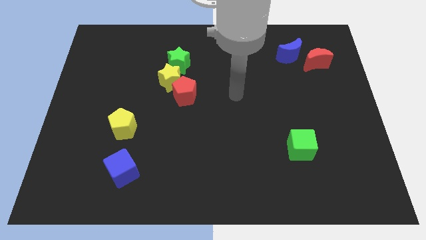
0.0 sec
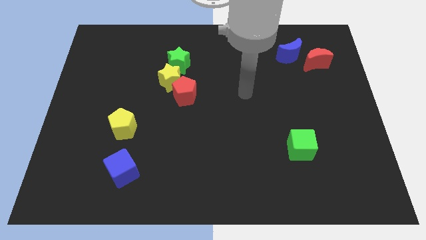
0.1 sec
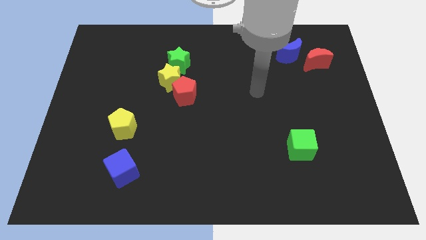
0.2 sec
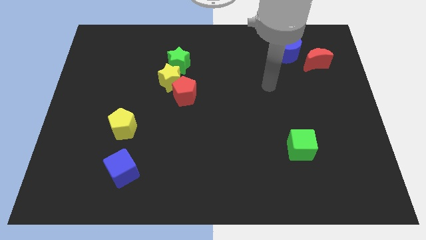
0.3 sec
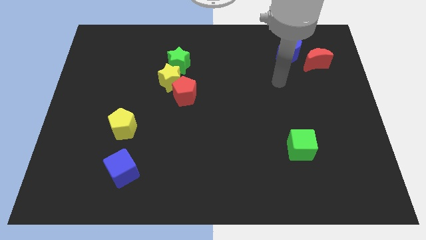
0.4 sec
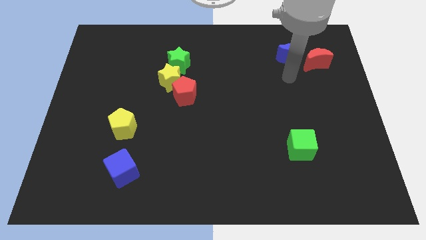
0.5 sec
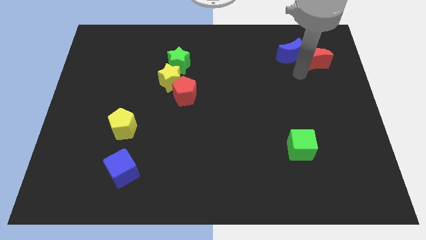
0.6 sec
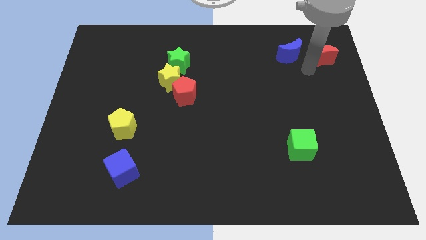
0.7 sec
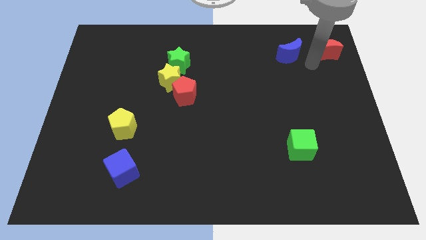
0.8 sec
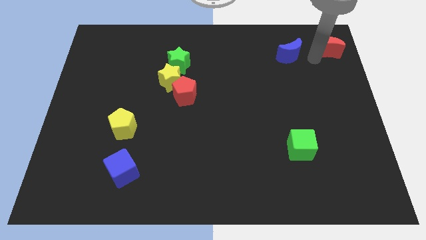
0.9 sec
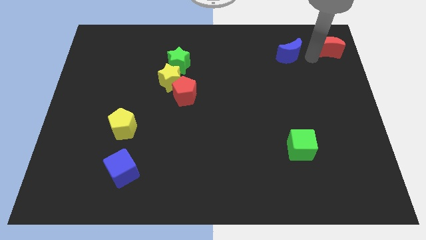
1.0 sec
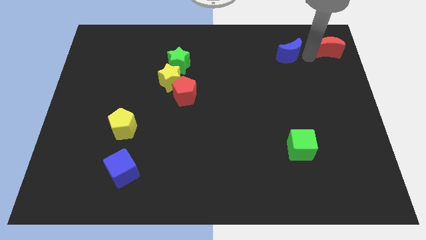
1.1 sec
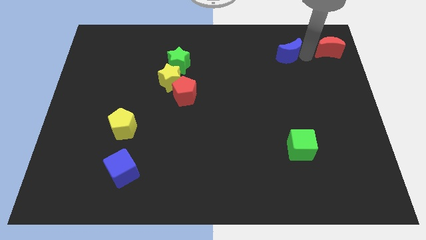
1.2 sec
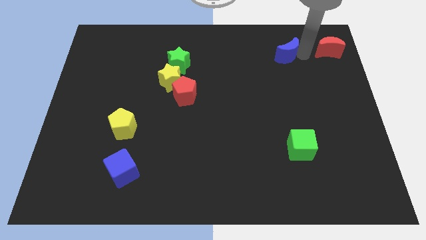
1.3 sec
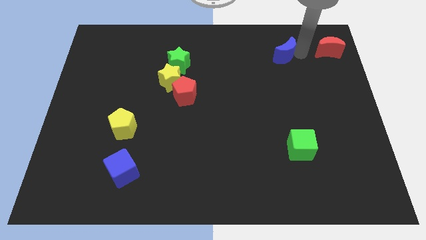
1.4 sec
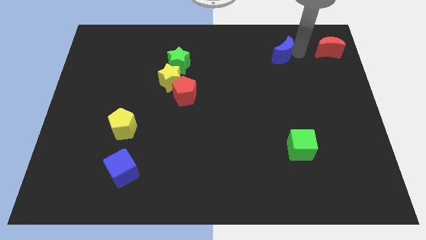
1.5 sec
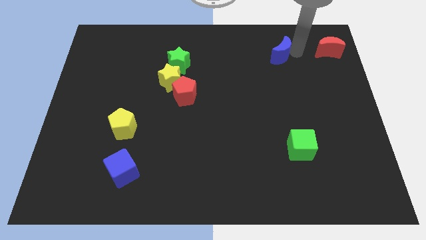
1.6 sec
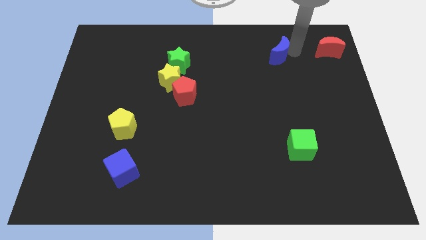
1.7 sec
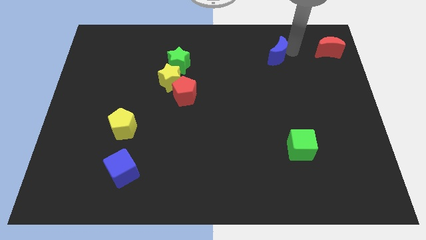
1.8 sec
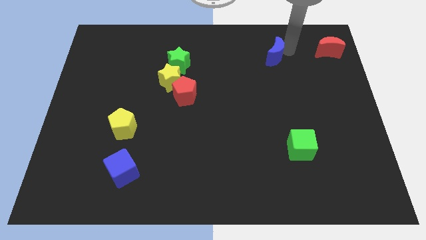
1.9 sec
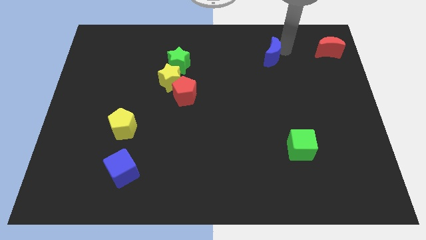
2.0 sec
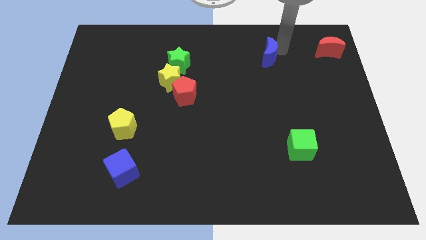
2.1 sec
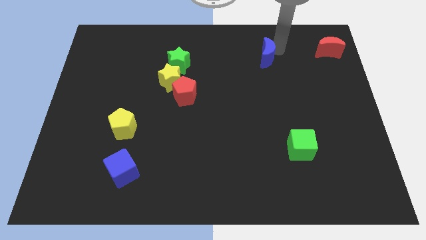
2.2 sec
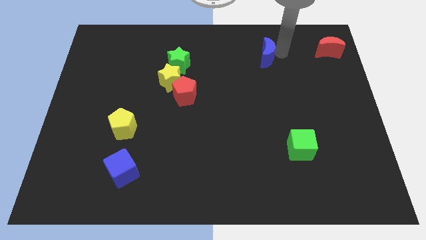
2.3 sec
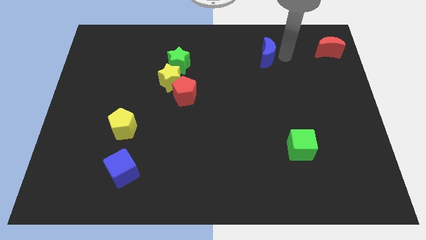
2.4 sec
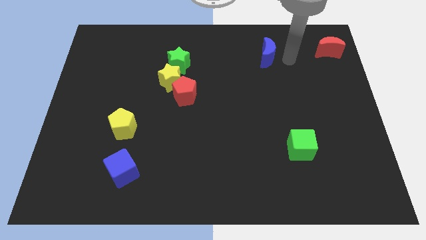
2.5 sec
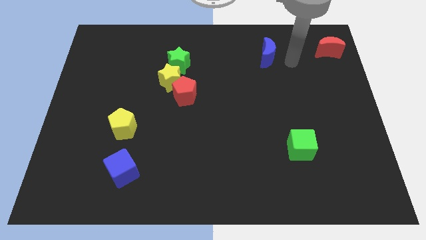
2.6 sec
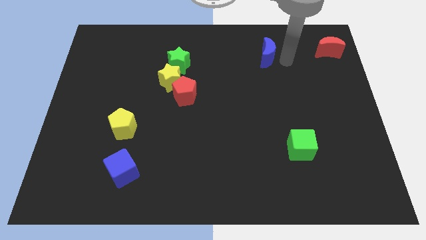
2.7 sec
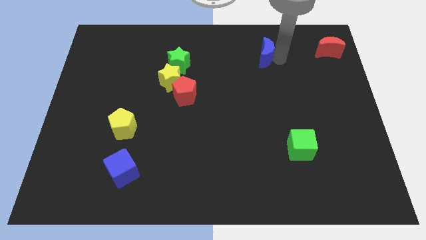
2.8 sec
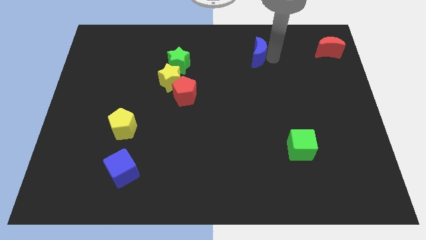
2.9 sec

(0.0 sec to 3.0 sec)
slightly push the blue moon left

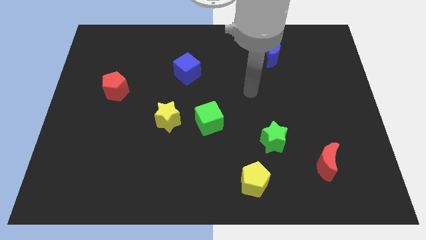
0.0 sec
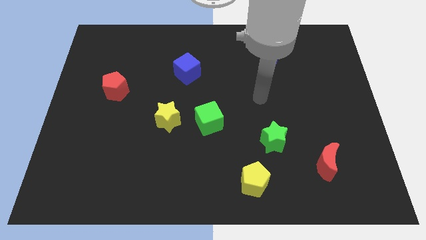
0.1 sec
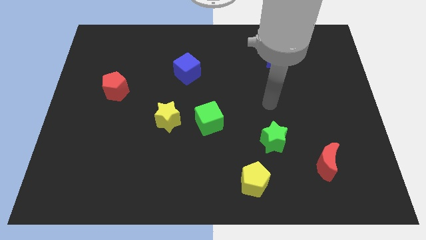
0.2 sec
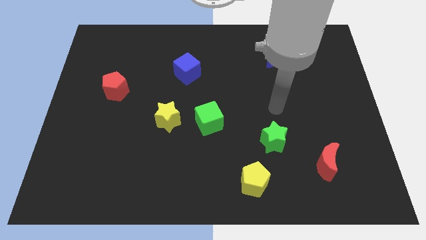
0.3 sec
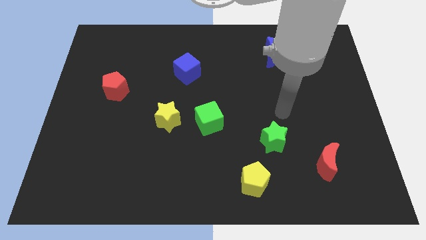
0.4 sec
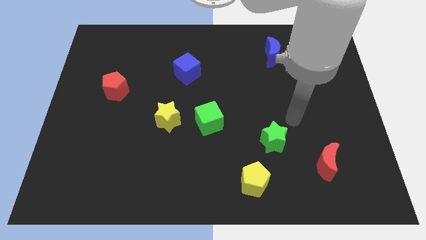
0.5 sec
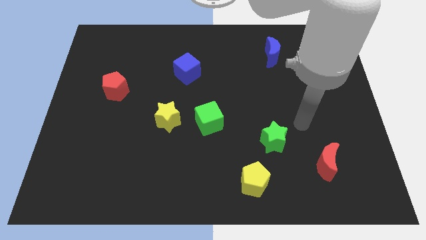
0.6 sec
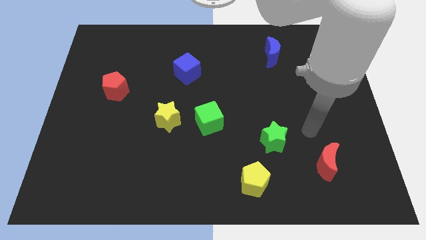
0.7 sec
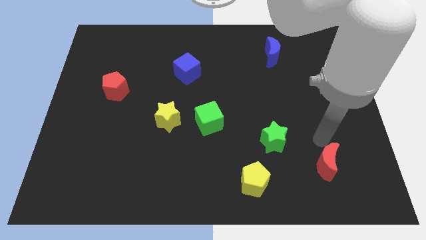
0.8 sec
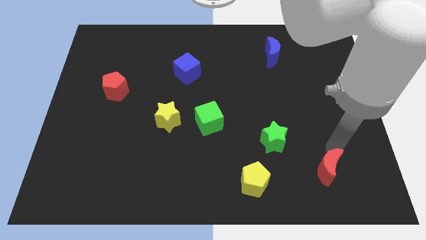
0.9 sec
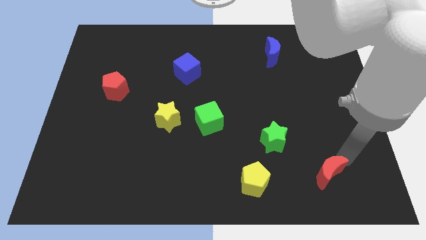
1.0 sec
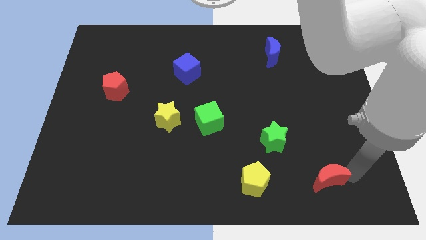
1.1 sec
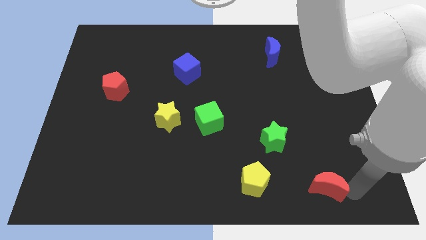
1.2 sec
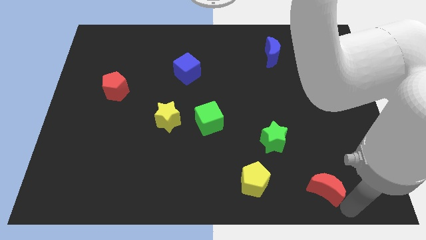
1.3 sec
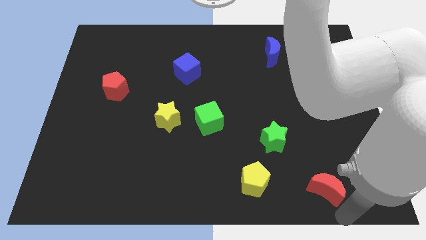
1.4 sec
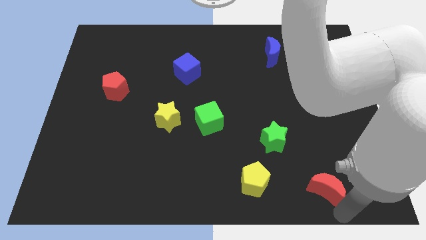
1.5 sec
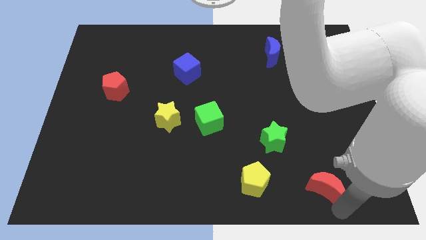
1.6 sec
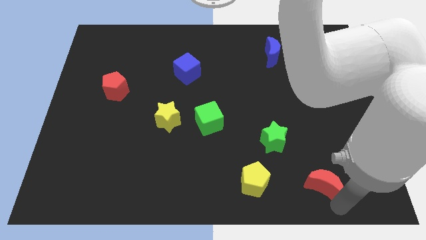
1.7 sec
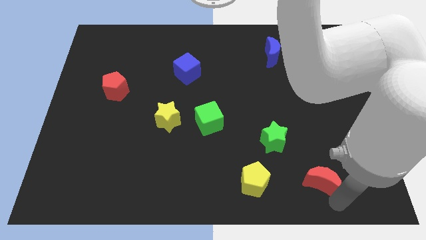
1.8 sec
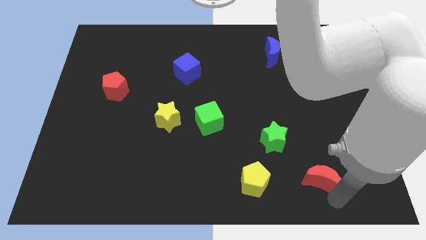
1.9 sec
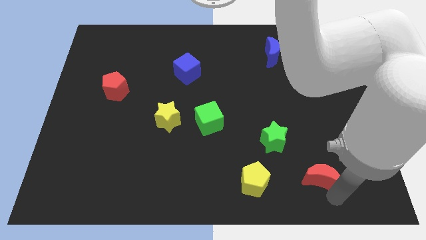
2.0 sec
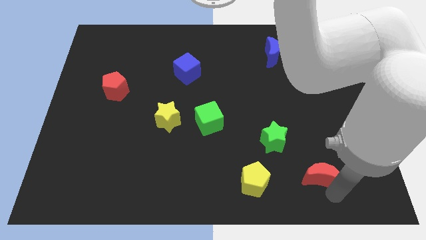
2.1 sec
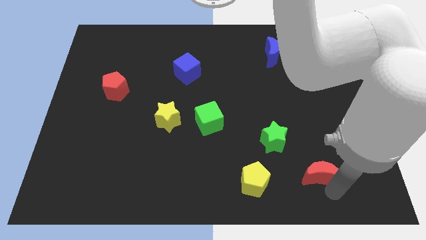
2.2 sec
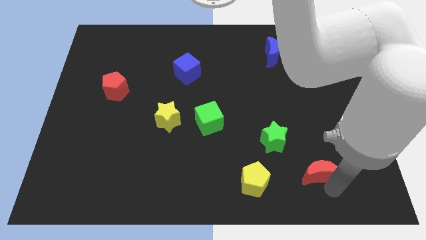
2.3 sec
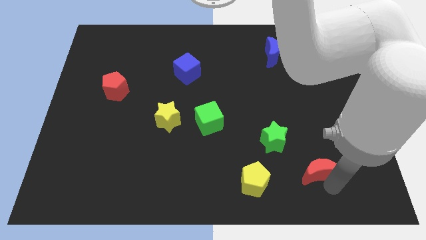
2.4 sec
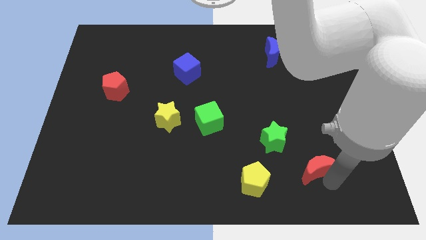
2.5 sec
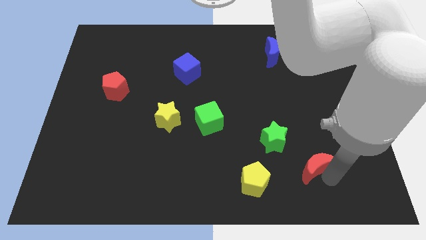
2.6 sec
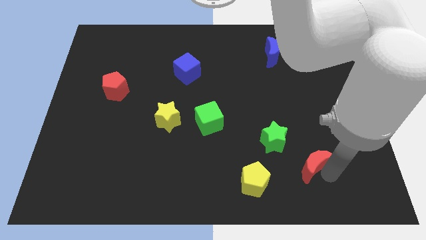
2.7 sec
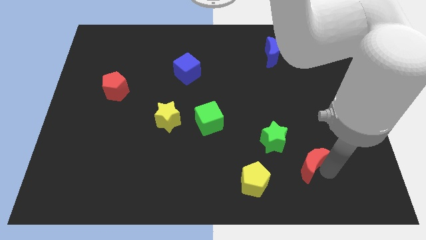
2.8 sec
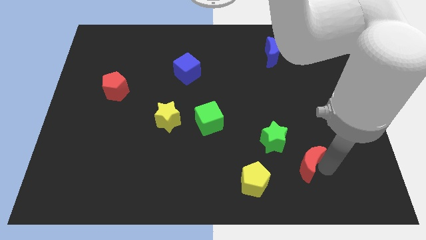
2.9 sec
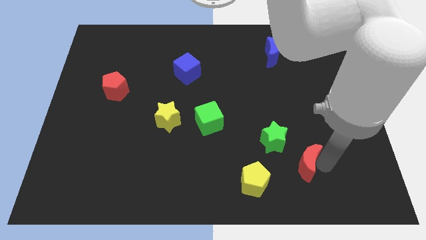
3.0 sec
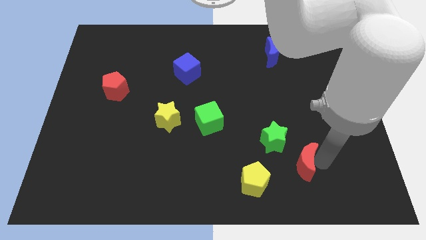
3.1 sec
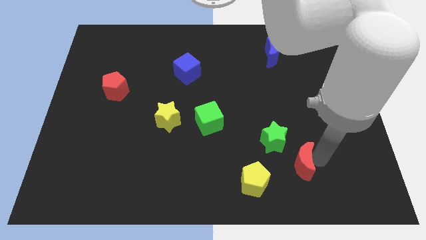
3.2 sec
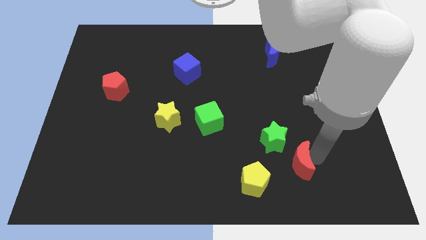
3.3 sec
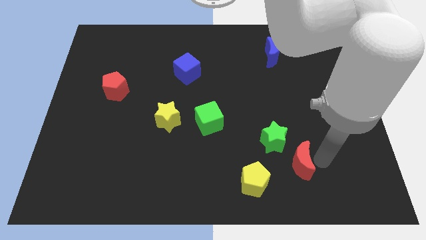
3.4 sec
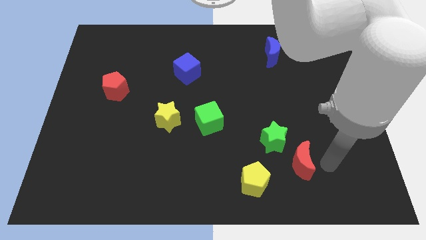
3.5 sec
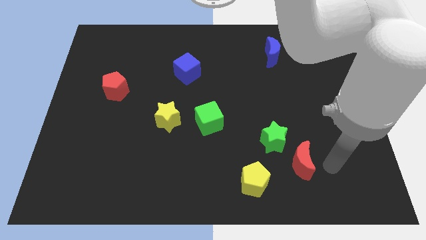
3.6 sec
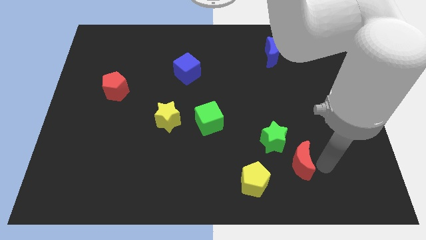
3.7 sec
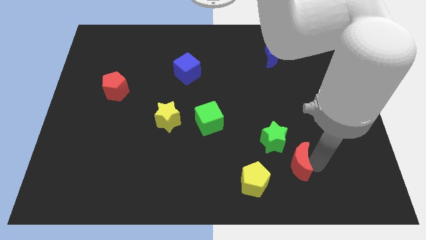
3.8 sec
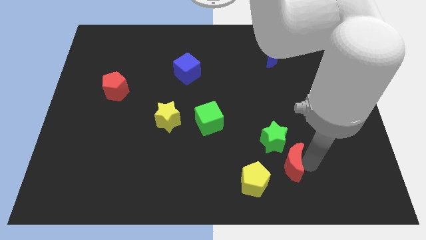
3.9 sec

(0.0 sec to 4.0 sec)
slightly slide the red moon to the left

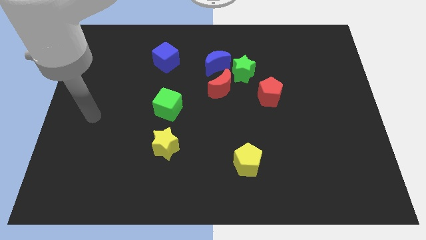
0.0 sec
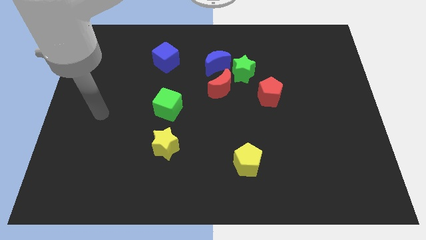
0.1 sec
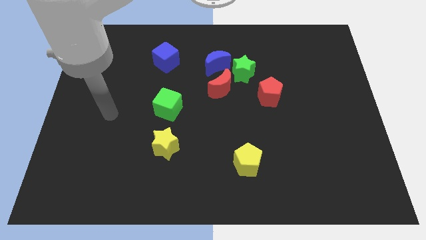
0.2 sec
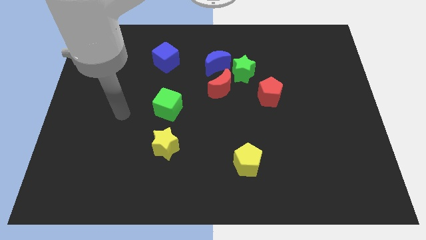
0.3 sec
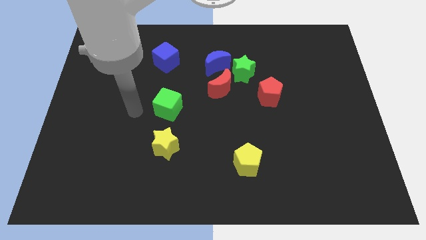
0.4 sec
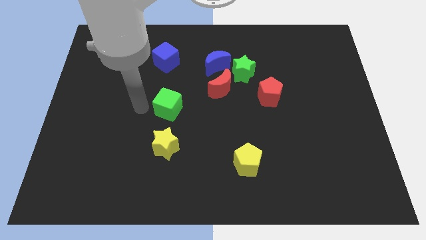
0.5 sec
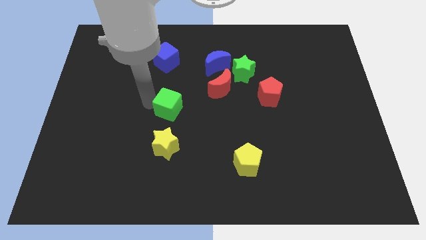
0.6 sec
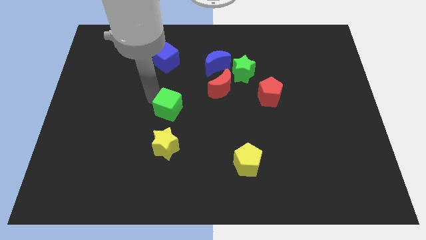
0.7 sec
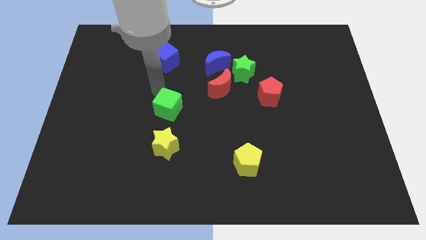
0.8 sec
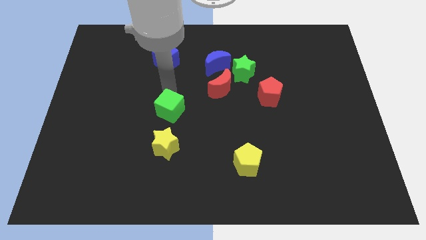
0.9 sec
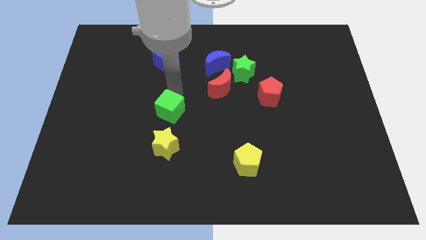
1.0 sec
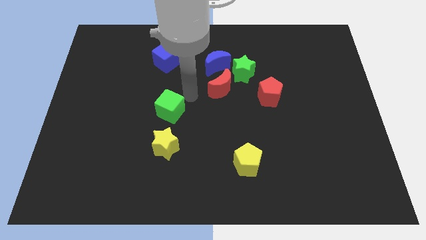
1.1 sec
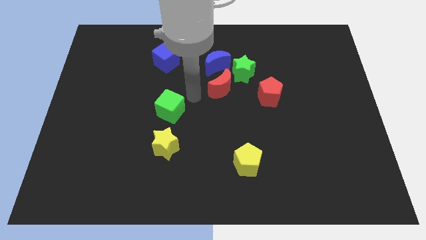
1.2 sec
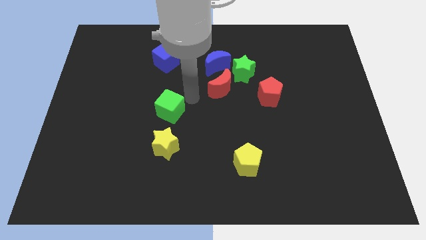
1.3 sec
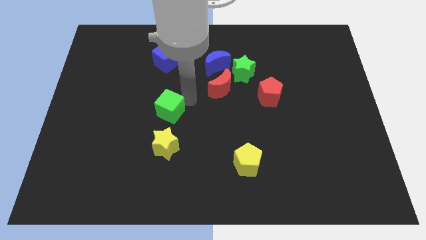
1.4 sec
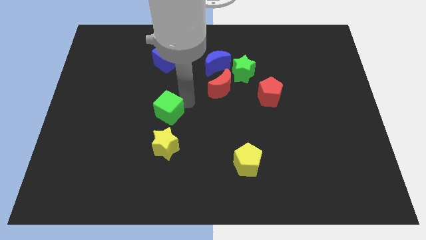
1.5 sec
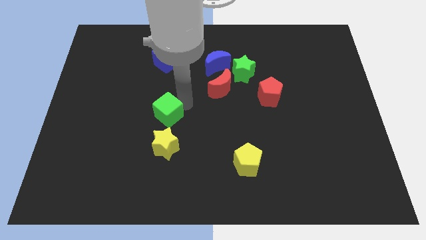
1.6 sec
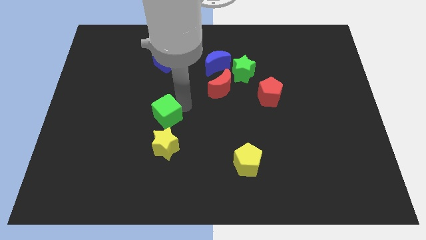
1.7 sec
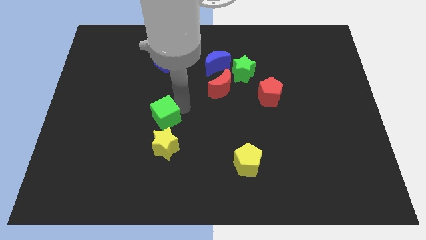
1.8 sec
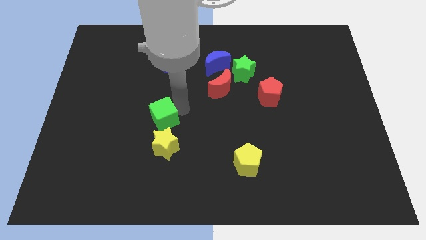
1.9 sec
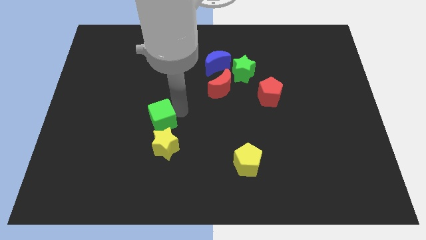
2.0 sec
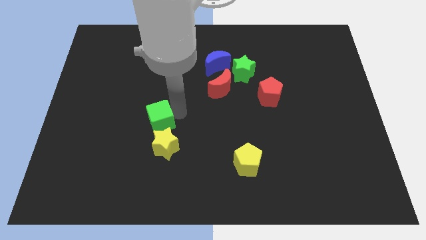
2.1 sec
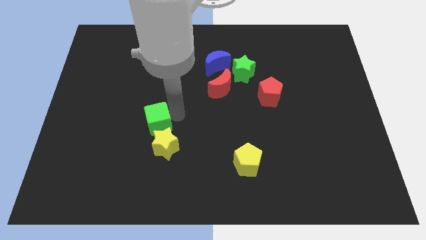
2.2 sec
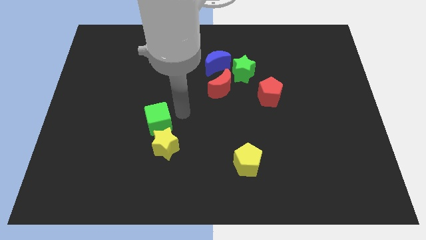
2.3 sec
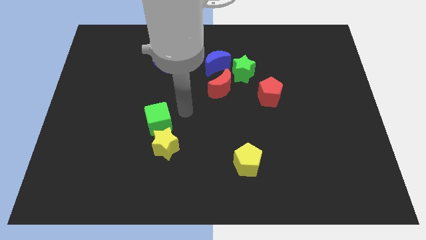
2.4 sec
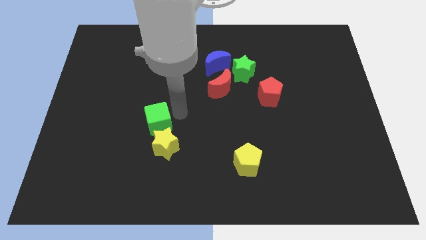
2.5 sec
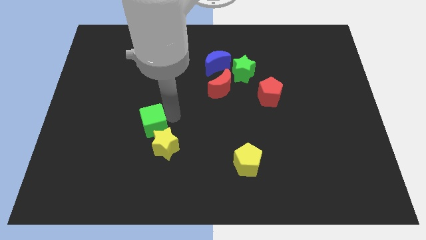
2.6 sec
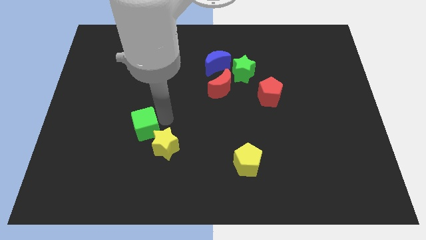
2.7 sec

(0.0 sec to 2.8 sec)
move the green cube downwards and to the left a bit
